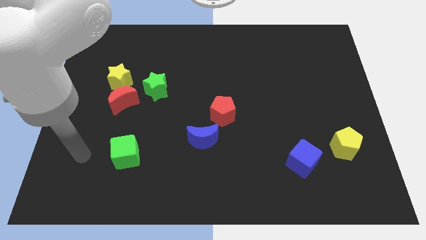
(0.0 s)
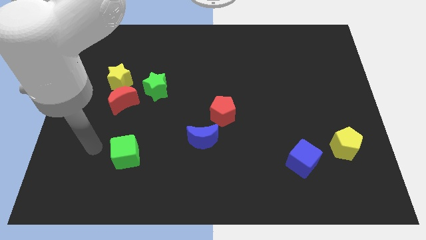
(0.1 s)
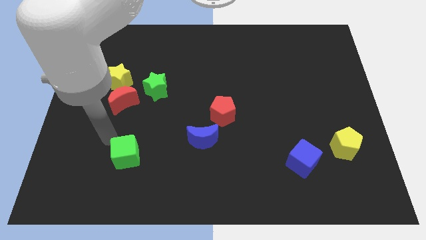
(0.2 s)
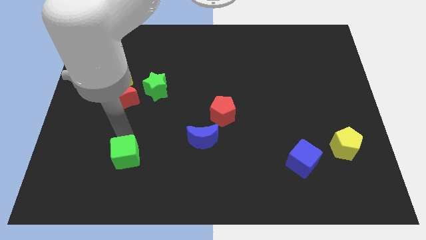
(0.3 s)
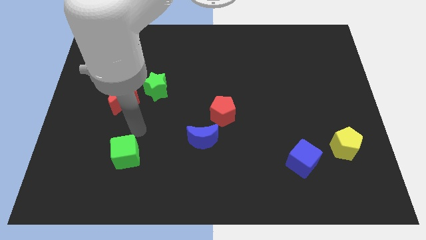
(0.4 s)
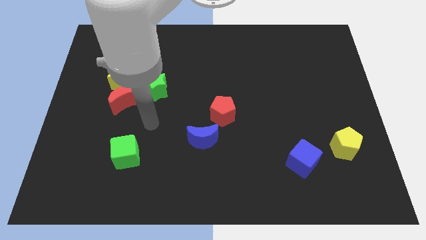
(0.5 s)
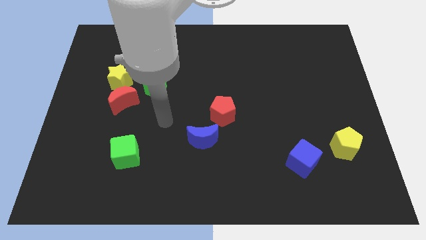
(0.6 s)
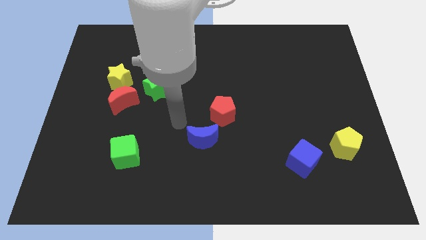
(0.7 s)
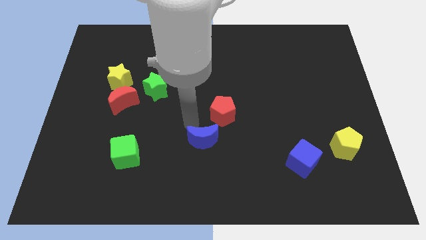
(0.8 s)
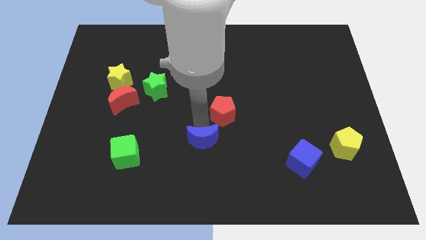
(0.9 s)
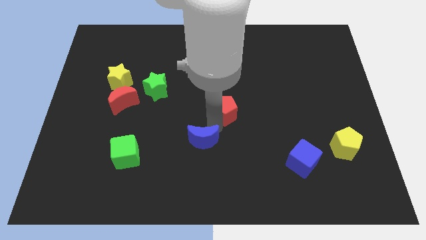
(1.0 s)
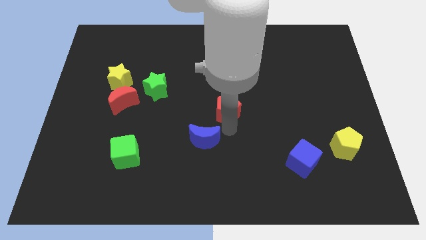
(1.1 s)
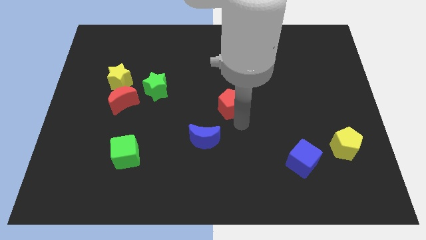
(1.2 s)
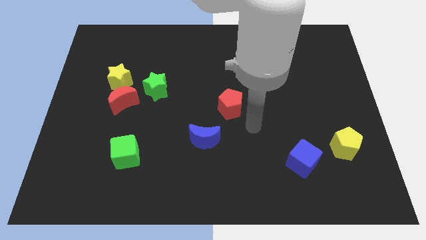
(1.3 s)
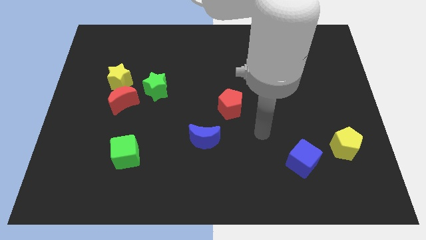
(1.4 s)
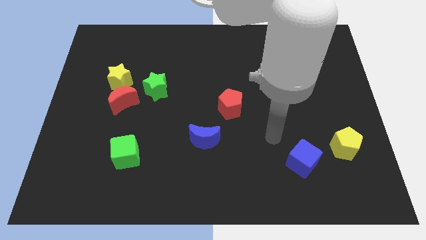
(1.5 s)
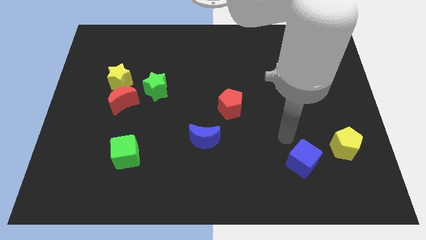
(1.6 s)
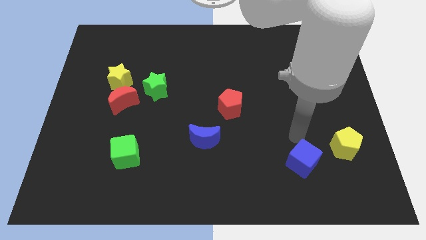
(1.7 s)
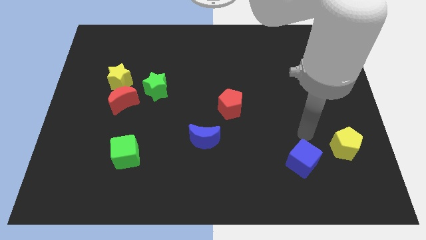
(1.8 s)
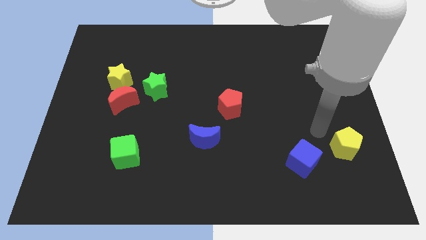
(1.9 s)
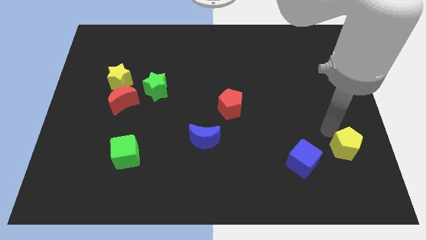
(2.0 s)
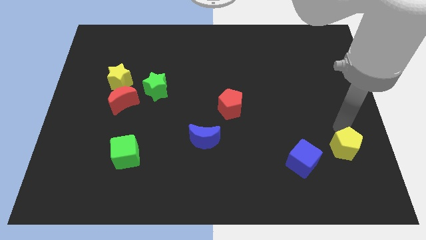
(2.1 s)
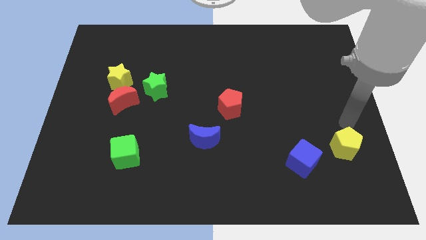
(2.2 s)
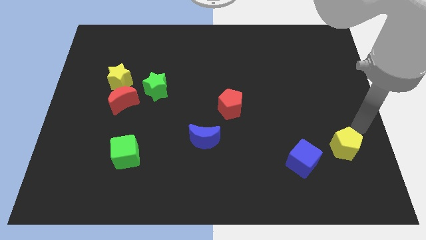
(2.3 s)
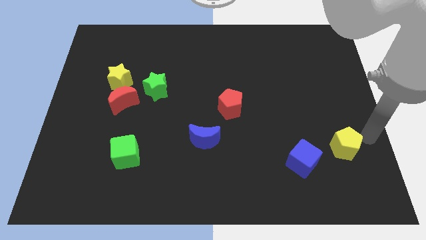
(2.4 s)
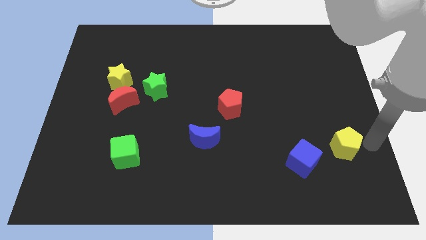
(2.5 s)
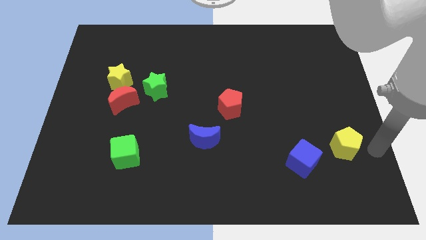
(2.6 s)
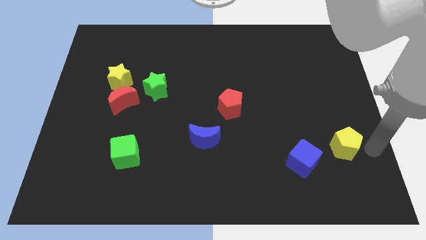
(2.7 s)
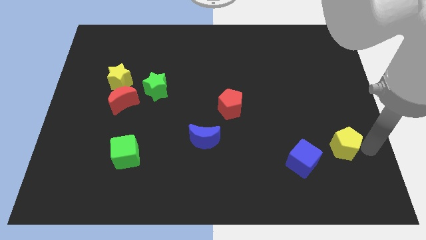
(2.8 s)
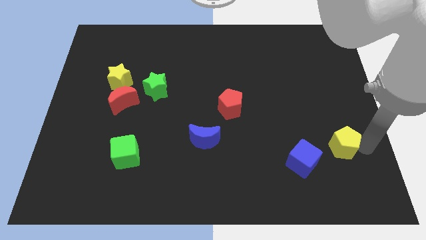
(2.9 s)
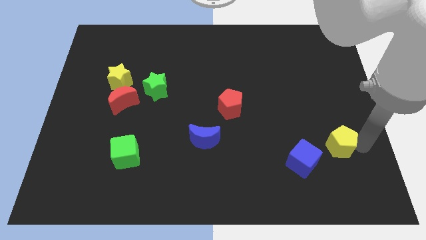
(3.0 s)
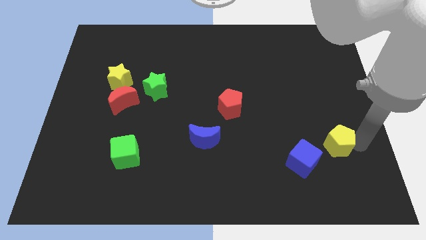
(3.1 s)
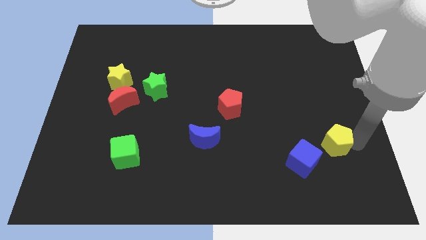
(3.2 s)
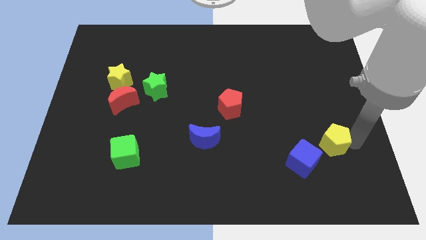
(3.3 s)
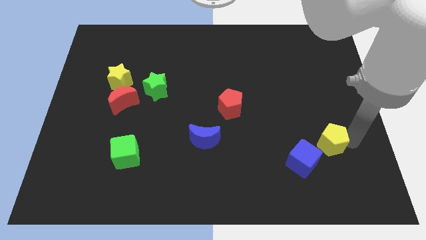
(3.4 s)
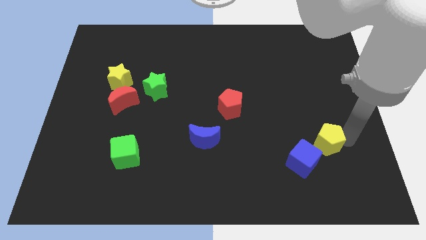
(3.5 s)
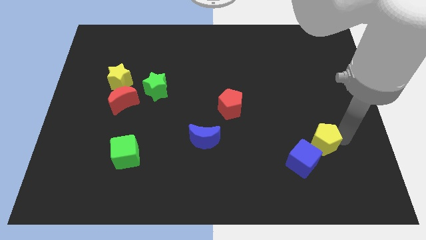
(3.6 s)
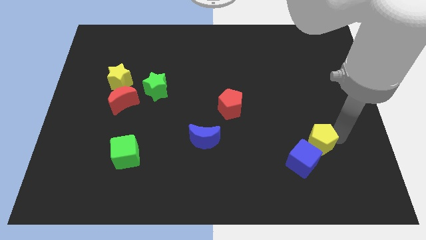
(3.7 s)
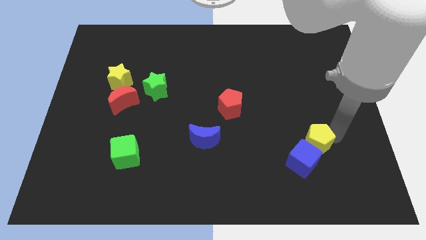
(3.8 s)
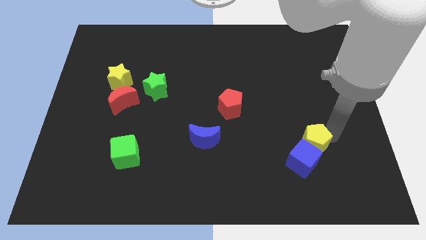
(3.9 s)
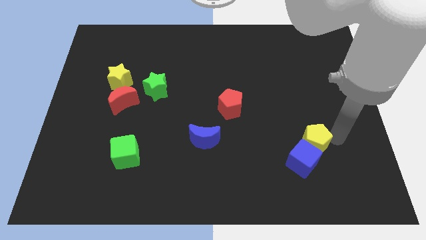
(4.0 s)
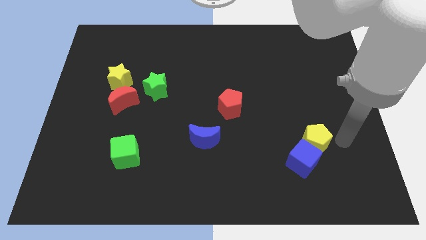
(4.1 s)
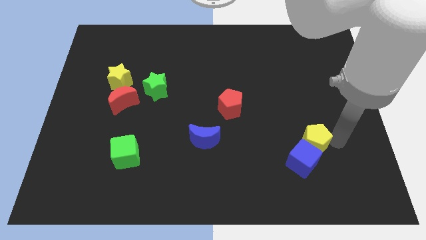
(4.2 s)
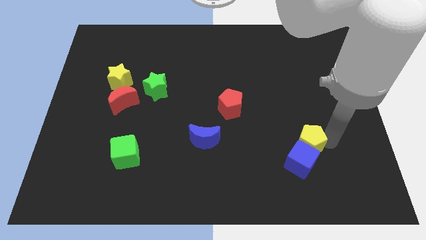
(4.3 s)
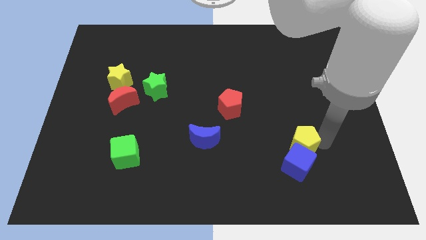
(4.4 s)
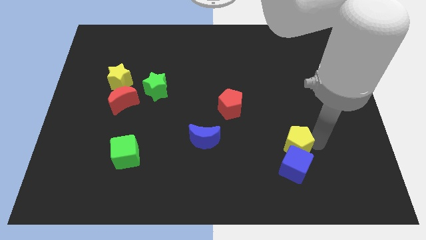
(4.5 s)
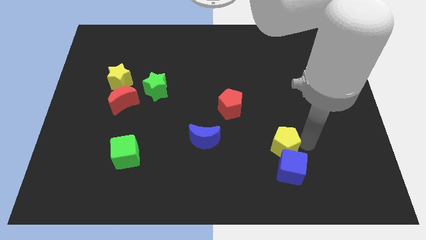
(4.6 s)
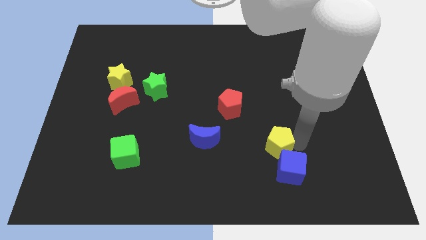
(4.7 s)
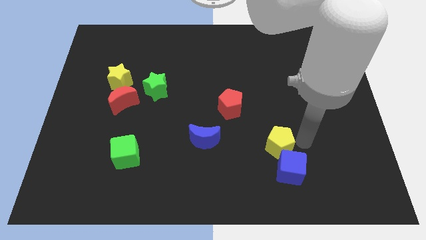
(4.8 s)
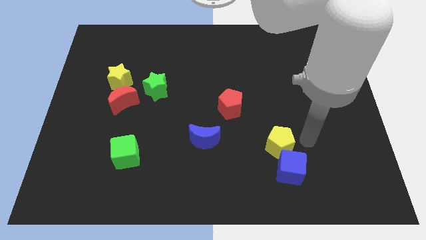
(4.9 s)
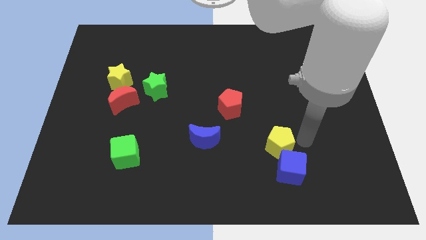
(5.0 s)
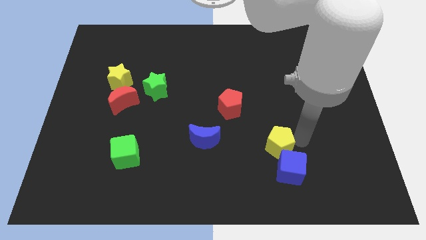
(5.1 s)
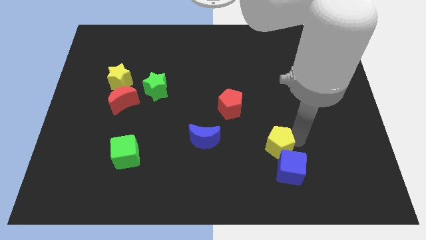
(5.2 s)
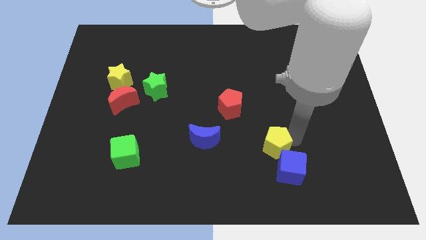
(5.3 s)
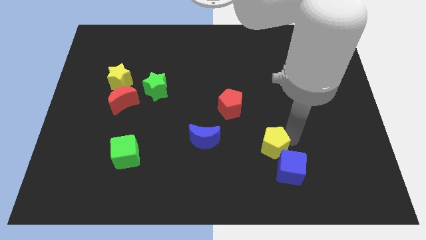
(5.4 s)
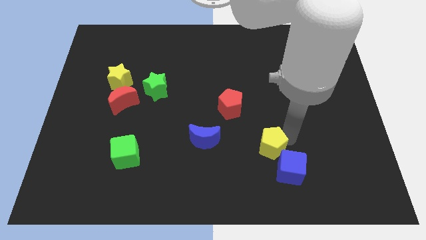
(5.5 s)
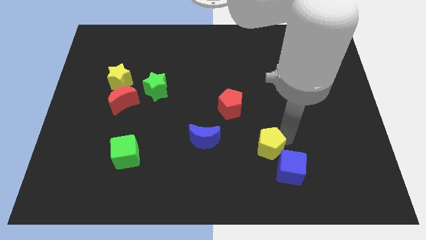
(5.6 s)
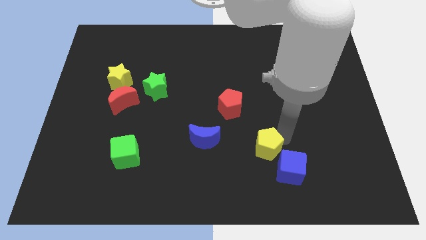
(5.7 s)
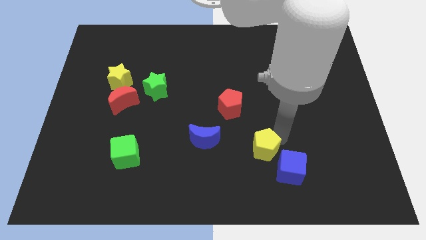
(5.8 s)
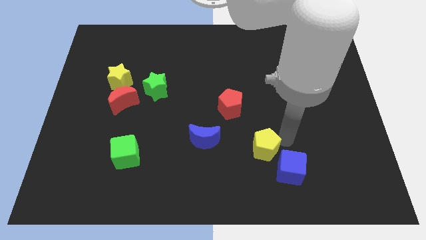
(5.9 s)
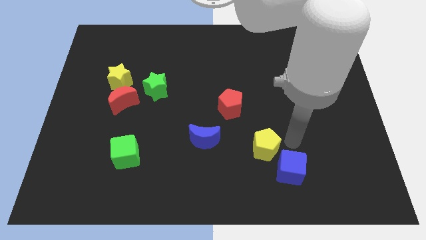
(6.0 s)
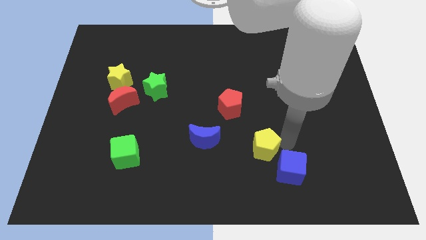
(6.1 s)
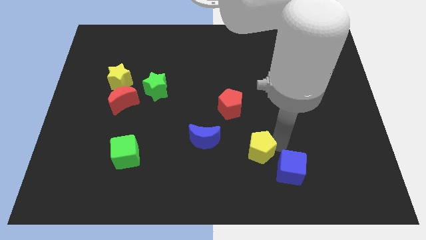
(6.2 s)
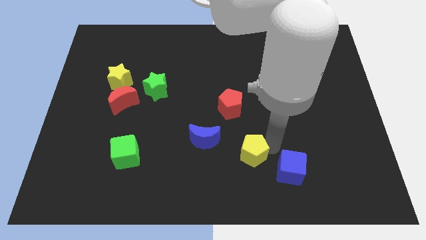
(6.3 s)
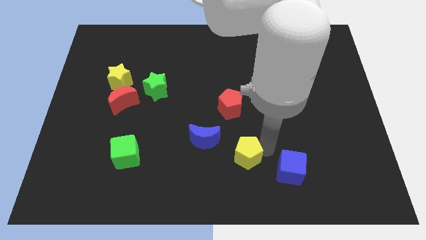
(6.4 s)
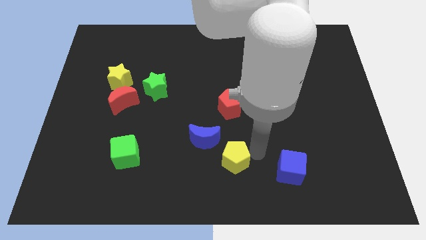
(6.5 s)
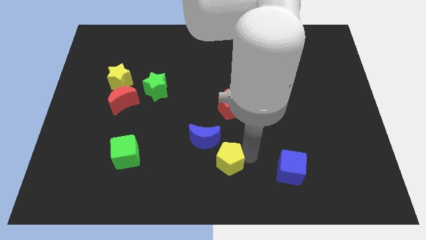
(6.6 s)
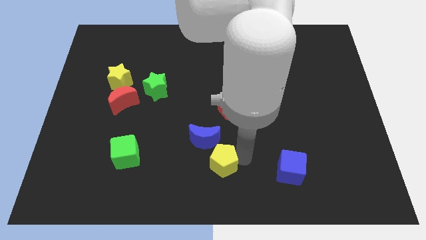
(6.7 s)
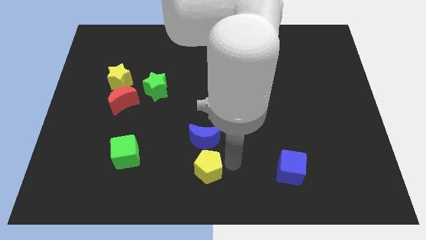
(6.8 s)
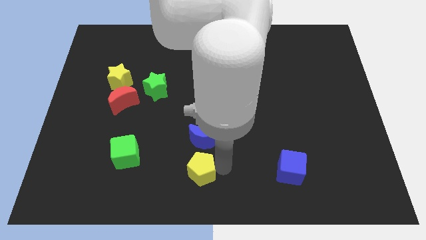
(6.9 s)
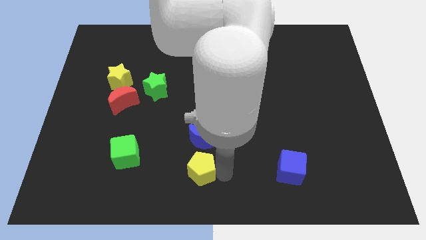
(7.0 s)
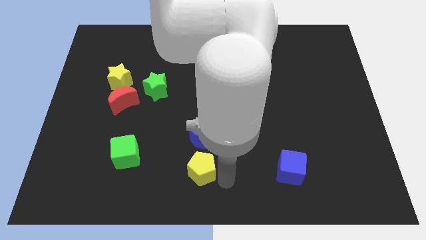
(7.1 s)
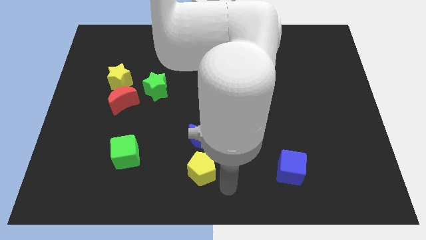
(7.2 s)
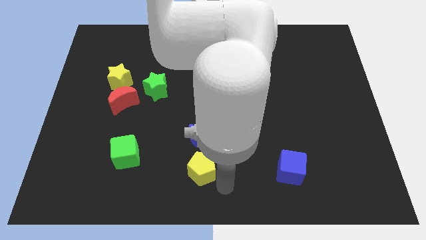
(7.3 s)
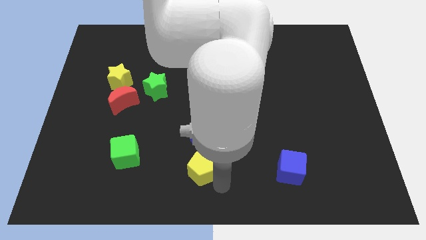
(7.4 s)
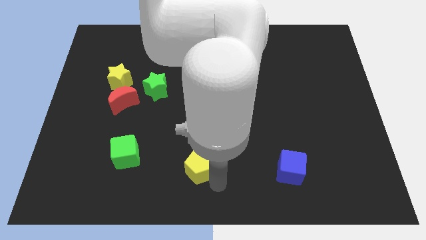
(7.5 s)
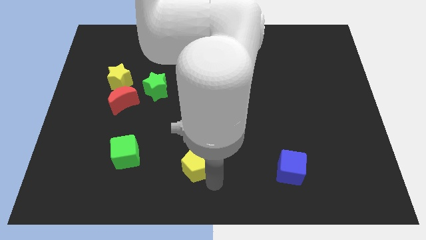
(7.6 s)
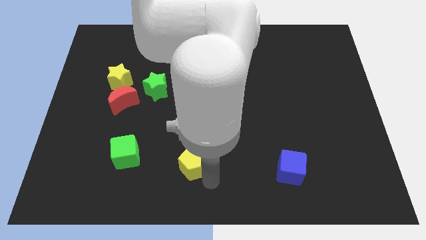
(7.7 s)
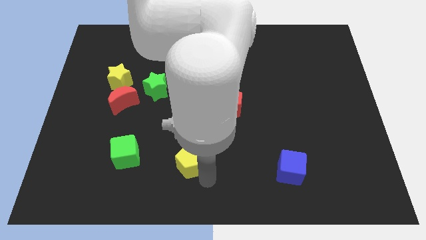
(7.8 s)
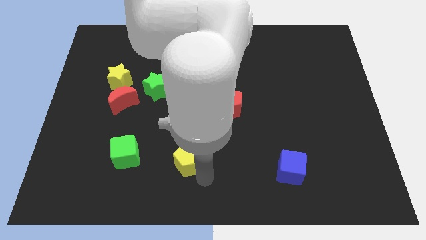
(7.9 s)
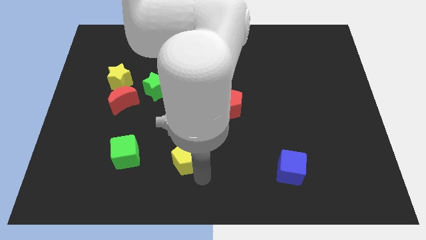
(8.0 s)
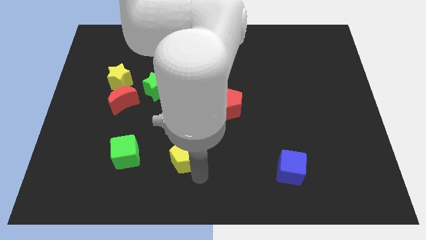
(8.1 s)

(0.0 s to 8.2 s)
push the yellow pentagon to the left side of the blue moon
